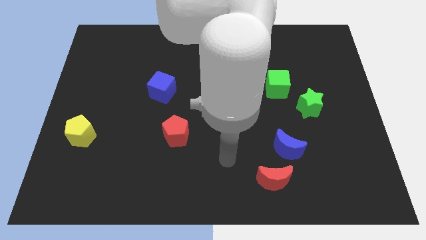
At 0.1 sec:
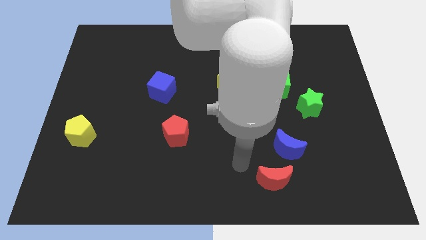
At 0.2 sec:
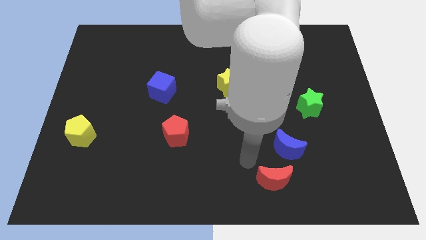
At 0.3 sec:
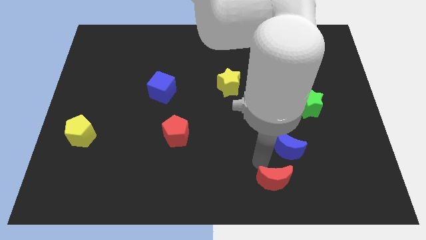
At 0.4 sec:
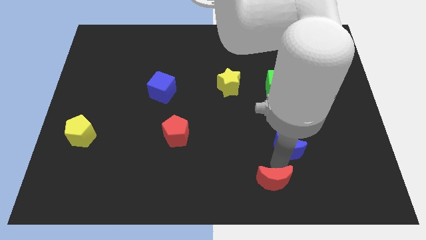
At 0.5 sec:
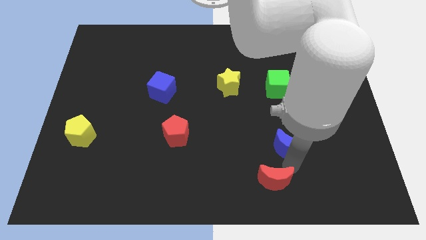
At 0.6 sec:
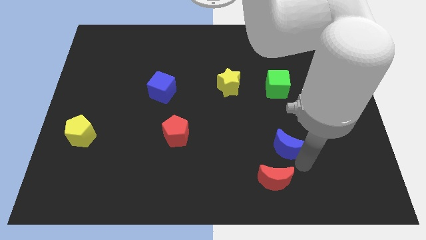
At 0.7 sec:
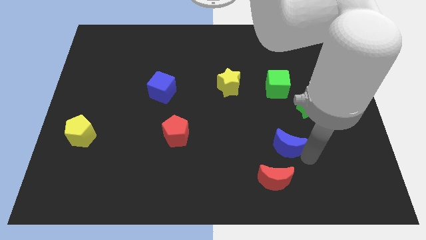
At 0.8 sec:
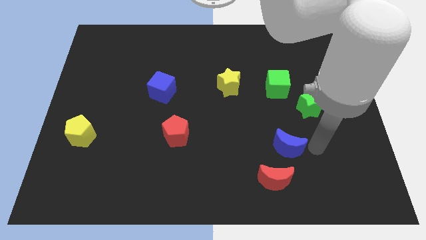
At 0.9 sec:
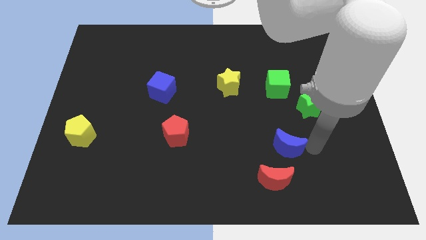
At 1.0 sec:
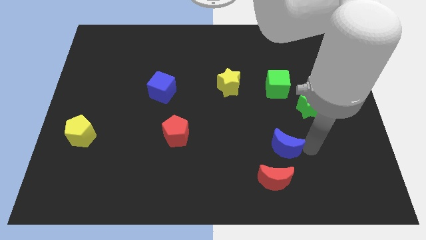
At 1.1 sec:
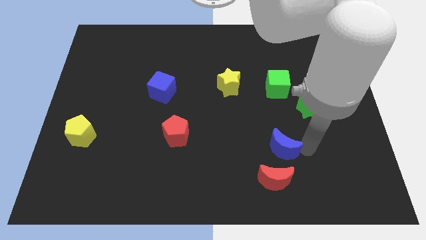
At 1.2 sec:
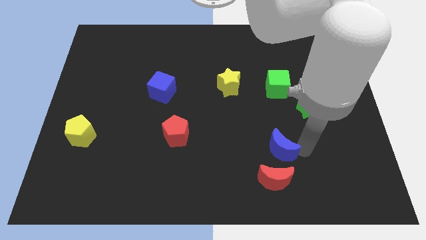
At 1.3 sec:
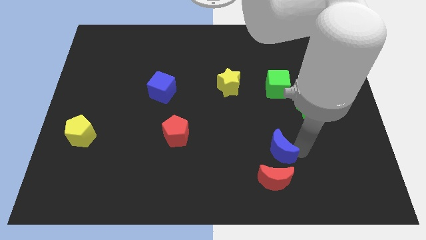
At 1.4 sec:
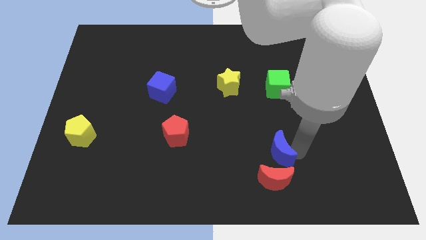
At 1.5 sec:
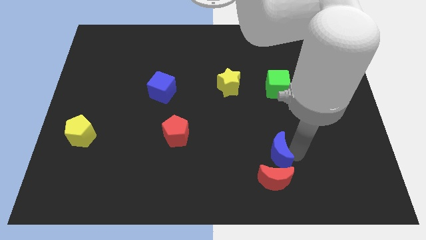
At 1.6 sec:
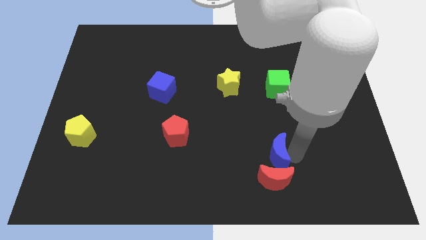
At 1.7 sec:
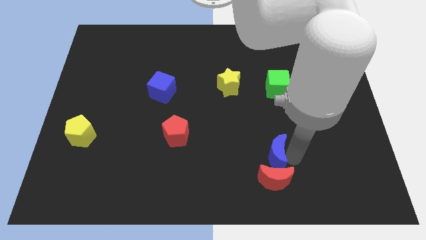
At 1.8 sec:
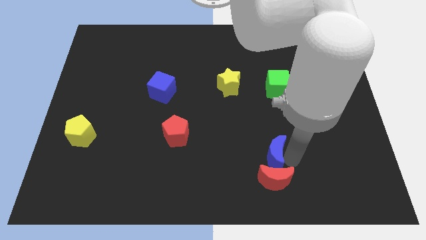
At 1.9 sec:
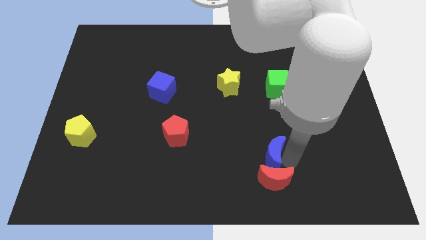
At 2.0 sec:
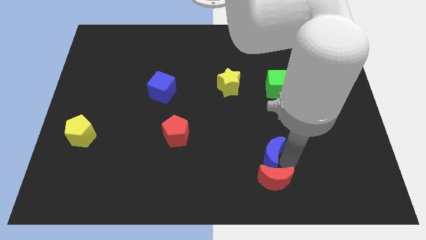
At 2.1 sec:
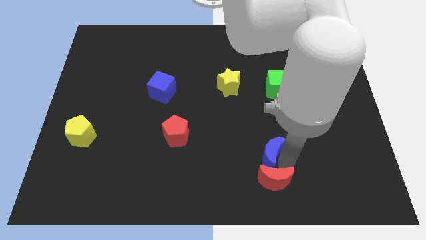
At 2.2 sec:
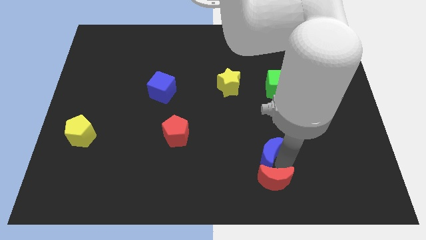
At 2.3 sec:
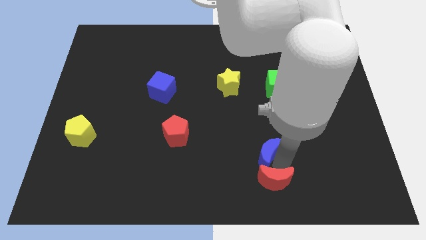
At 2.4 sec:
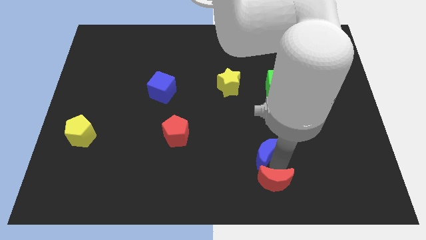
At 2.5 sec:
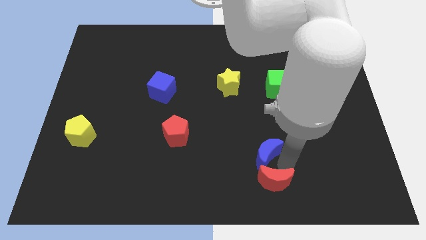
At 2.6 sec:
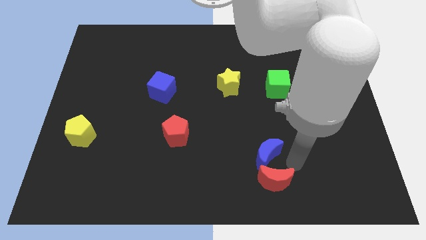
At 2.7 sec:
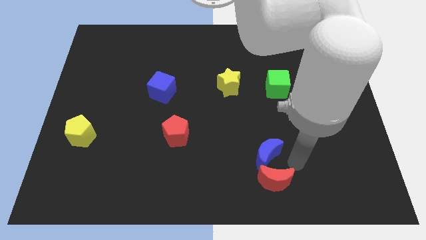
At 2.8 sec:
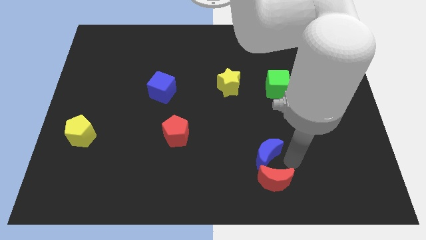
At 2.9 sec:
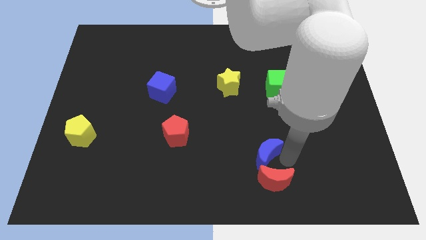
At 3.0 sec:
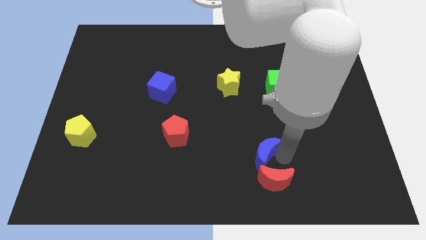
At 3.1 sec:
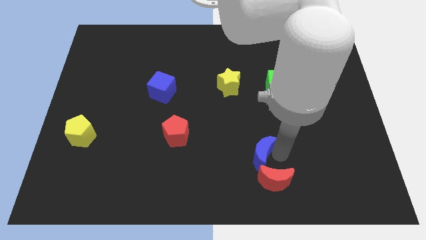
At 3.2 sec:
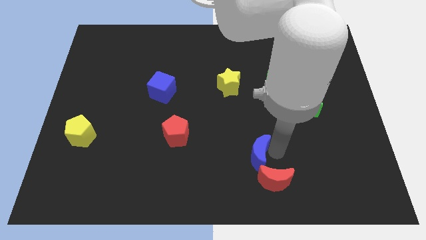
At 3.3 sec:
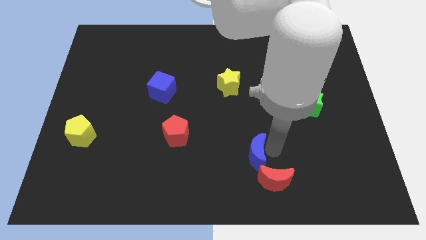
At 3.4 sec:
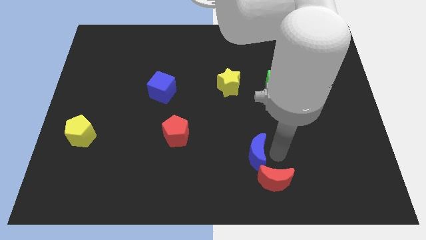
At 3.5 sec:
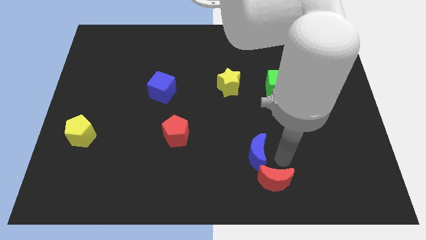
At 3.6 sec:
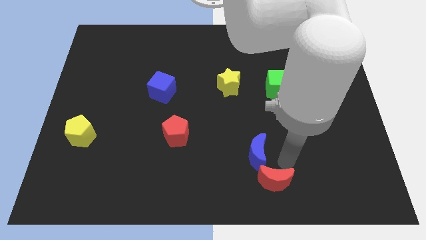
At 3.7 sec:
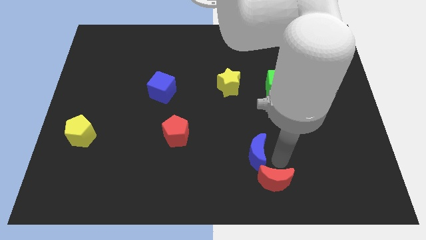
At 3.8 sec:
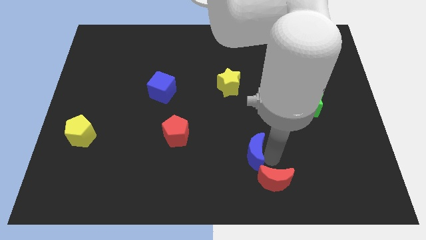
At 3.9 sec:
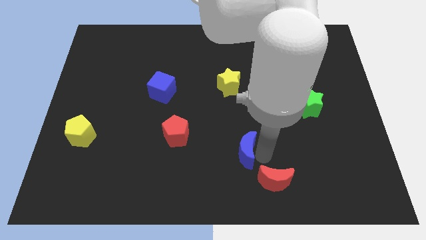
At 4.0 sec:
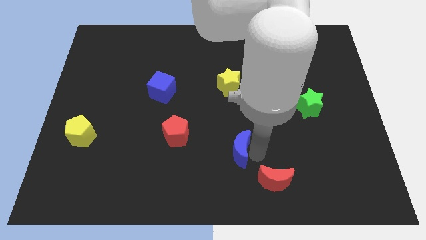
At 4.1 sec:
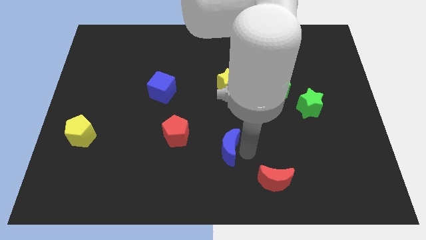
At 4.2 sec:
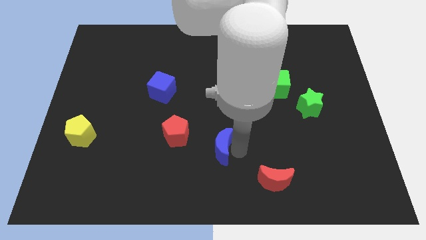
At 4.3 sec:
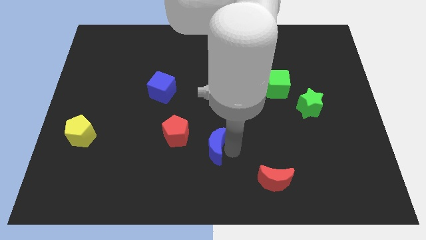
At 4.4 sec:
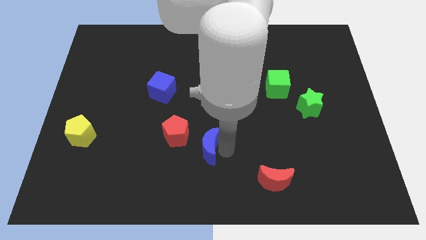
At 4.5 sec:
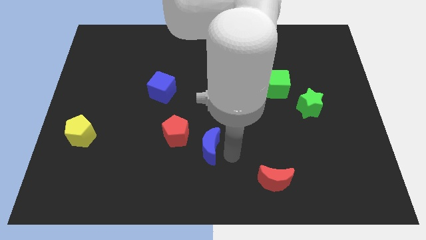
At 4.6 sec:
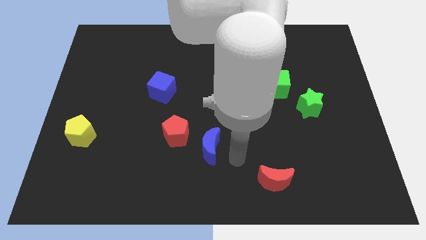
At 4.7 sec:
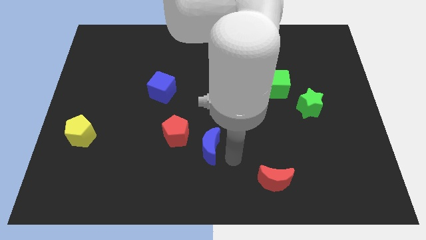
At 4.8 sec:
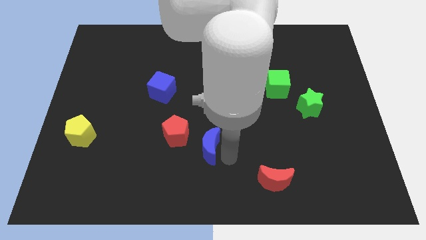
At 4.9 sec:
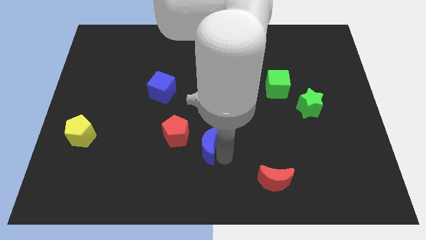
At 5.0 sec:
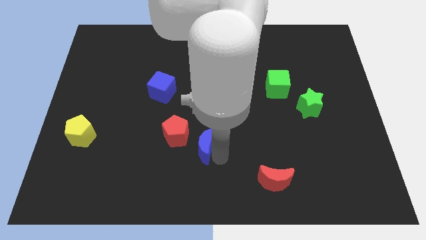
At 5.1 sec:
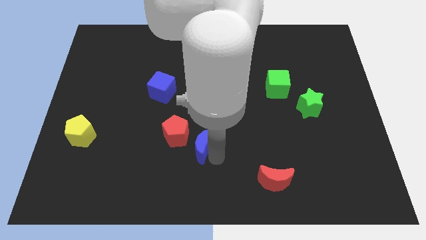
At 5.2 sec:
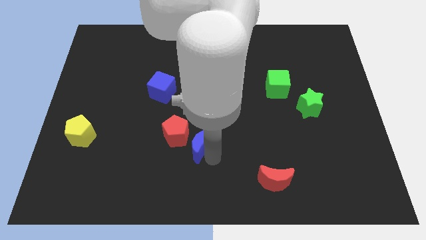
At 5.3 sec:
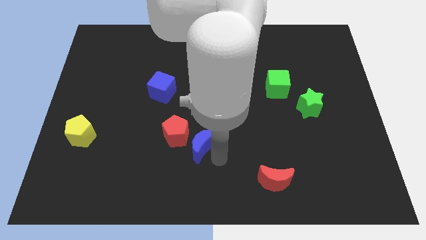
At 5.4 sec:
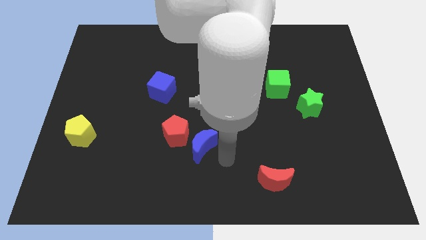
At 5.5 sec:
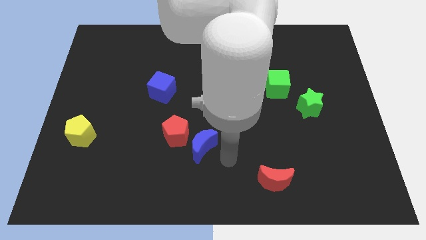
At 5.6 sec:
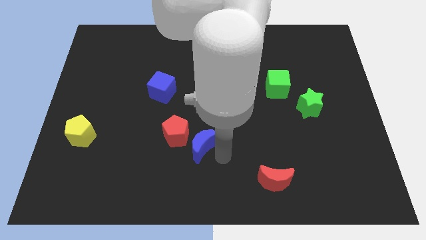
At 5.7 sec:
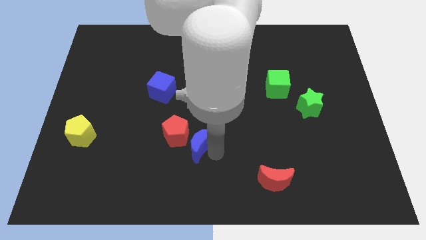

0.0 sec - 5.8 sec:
push the blue moon to the red pentagon

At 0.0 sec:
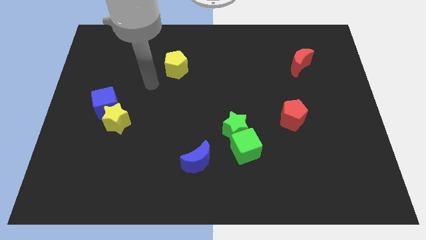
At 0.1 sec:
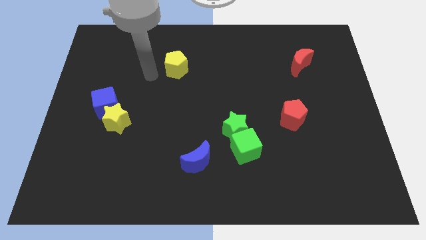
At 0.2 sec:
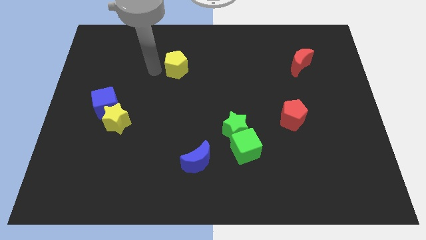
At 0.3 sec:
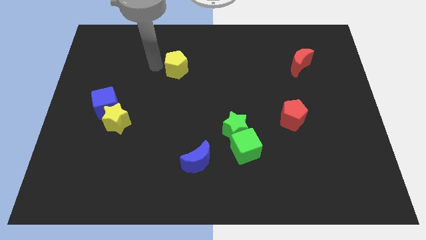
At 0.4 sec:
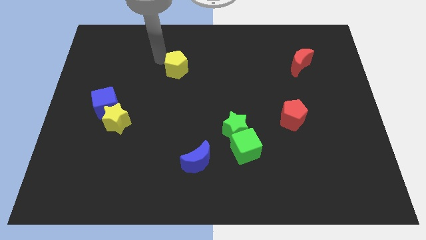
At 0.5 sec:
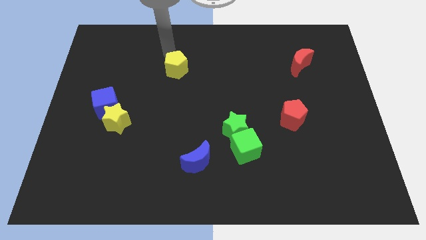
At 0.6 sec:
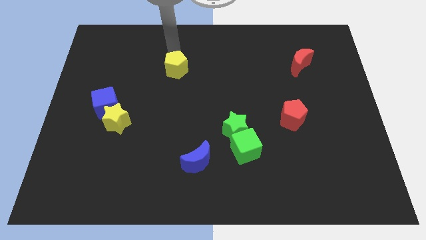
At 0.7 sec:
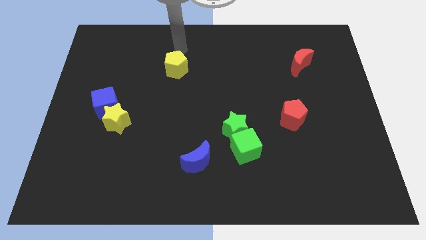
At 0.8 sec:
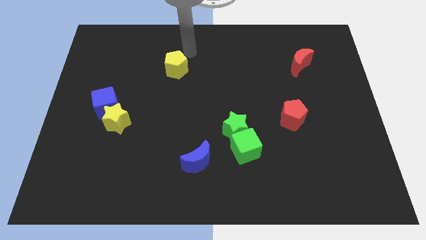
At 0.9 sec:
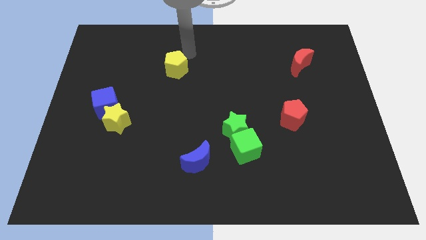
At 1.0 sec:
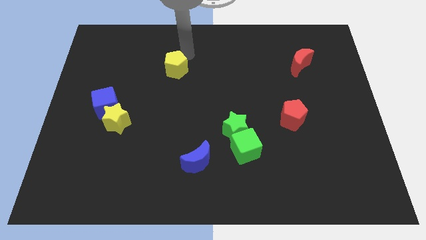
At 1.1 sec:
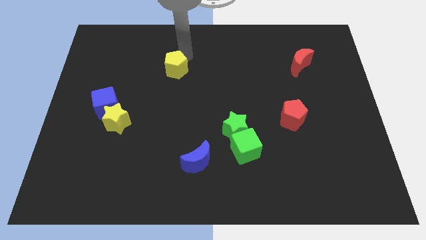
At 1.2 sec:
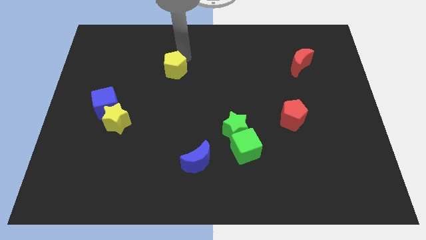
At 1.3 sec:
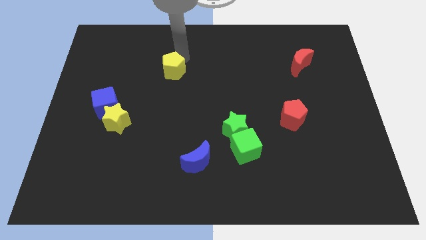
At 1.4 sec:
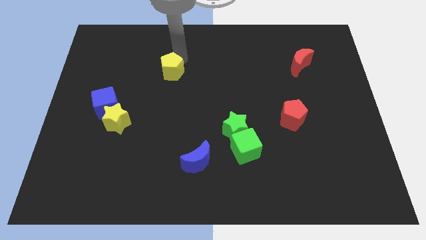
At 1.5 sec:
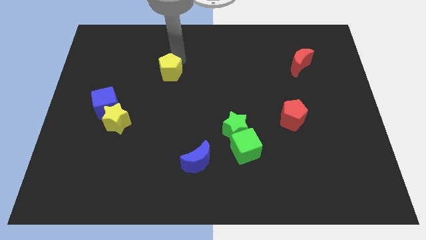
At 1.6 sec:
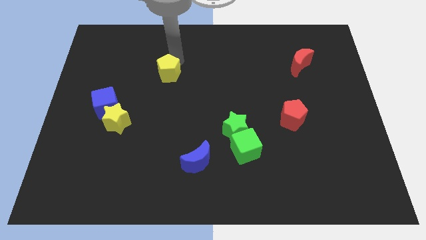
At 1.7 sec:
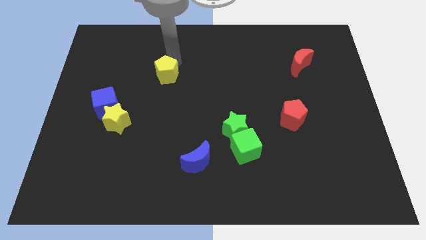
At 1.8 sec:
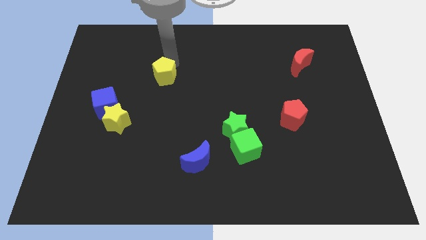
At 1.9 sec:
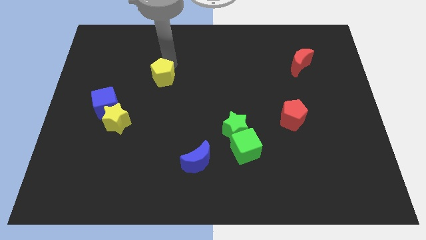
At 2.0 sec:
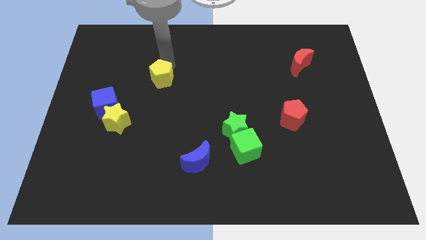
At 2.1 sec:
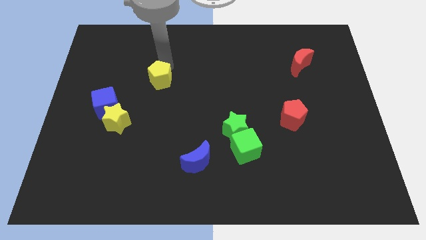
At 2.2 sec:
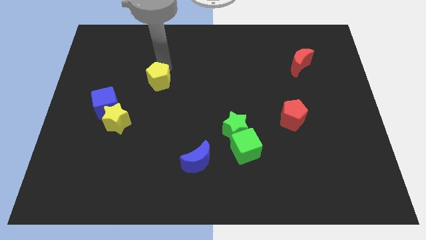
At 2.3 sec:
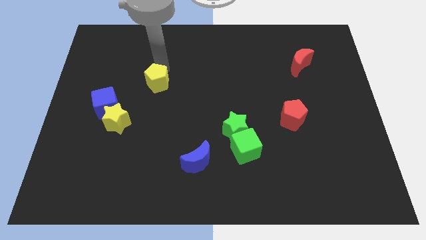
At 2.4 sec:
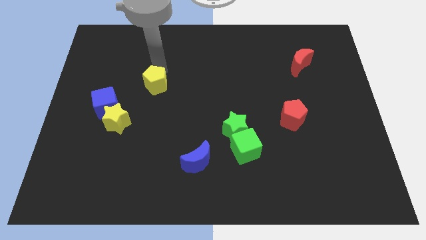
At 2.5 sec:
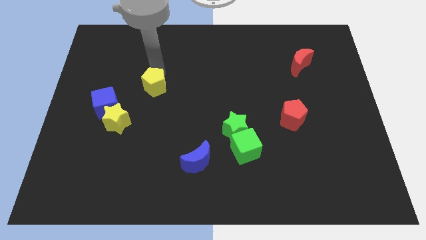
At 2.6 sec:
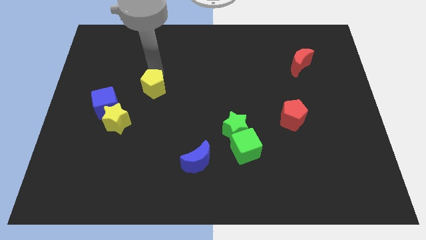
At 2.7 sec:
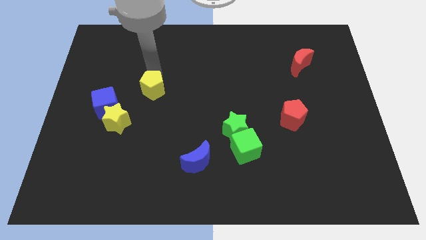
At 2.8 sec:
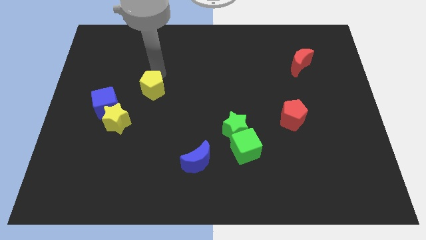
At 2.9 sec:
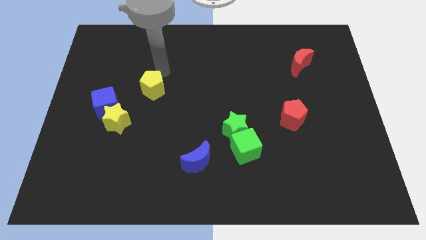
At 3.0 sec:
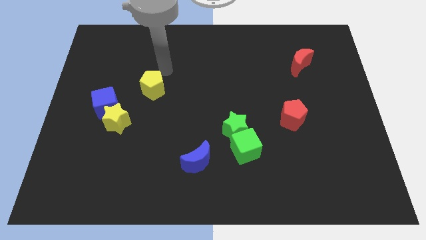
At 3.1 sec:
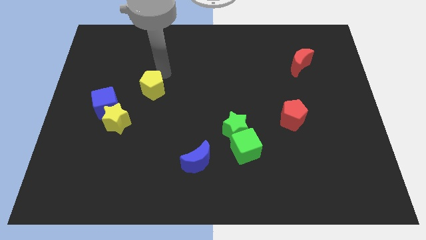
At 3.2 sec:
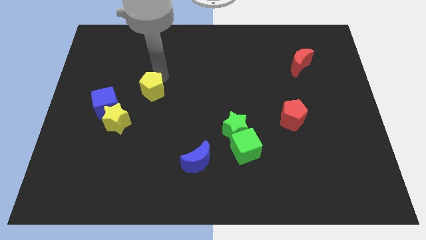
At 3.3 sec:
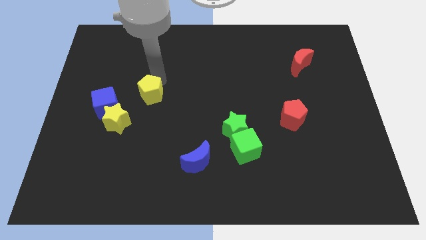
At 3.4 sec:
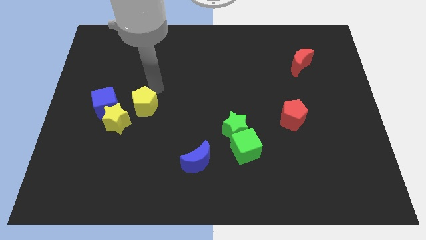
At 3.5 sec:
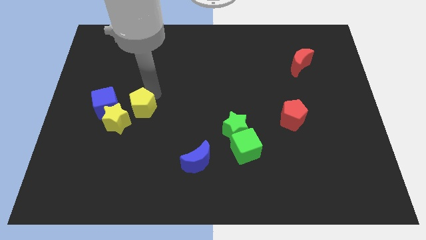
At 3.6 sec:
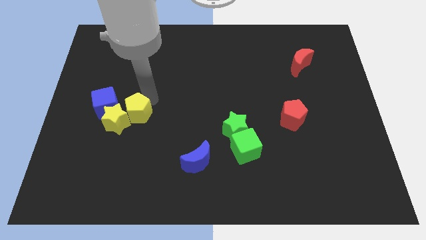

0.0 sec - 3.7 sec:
push the yellow pentagon next to the yellow star
